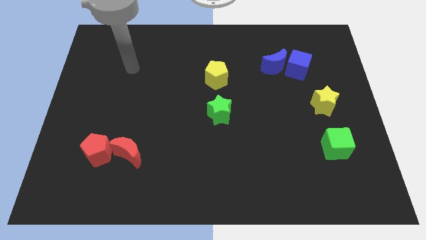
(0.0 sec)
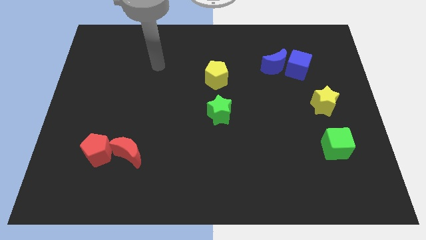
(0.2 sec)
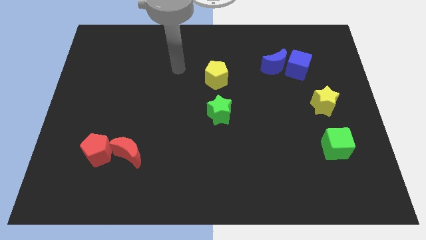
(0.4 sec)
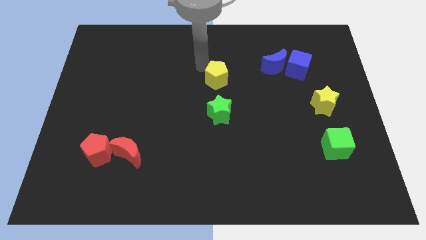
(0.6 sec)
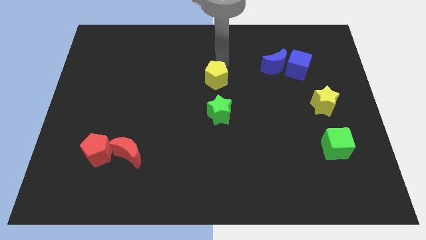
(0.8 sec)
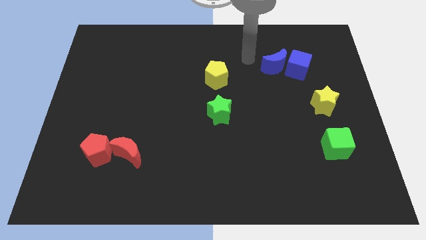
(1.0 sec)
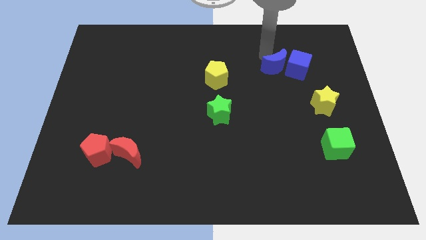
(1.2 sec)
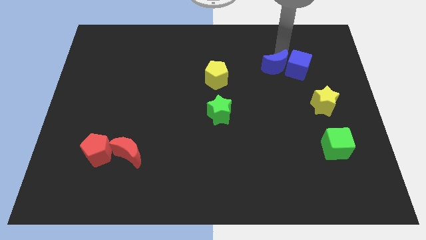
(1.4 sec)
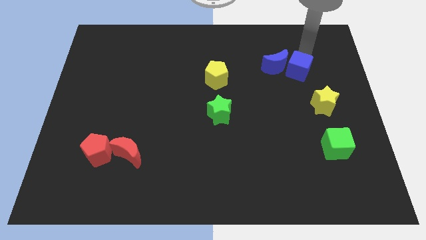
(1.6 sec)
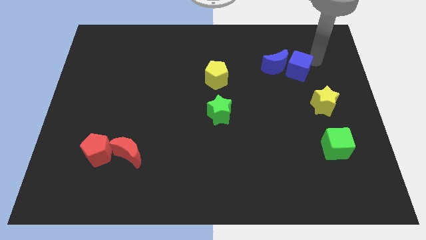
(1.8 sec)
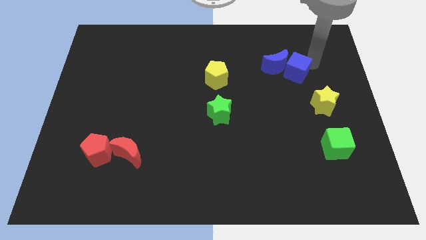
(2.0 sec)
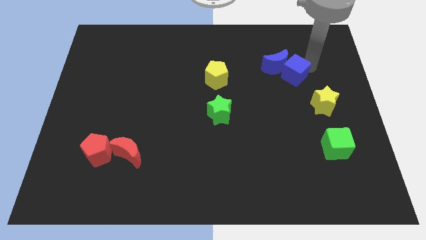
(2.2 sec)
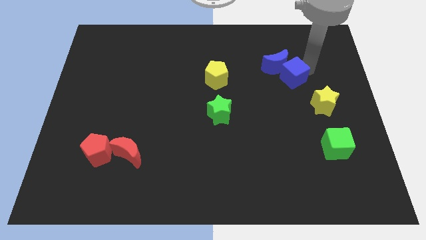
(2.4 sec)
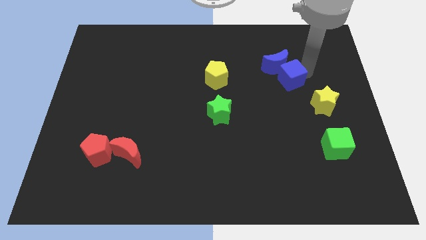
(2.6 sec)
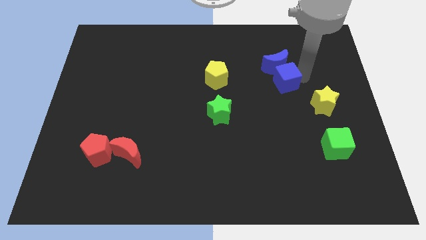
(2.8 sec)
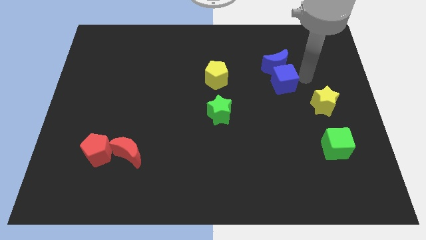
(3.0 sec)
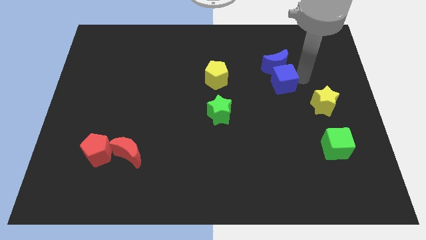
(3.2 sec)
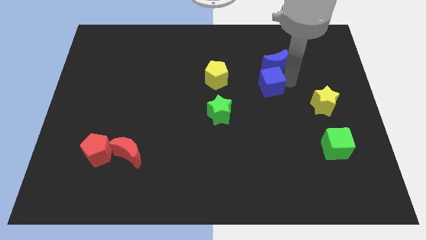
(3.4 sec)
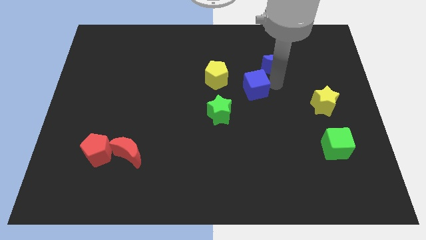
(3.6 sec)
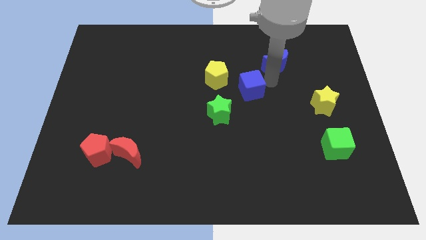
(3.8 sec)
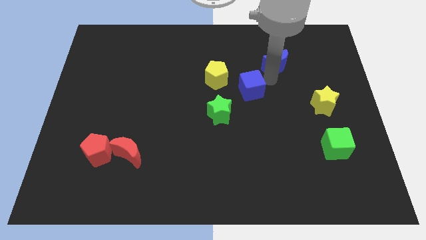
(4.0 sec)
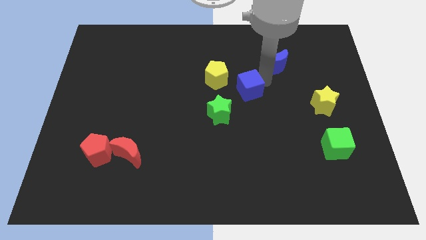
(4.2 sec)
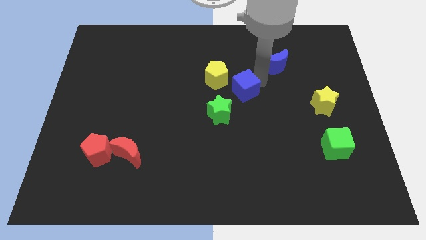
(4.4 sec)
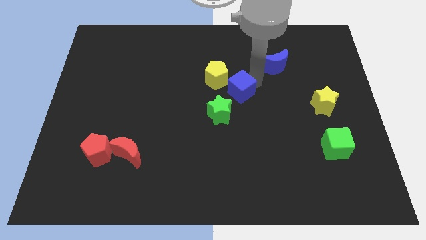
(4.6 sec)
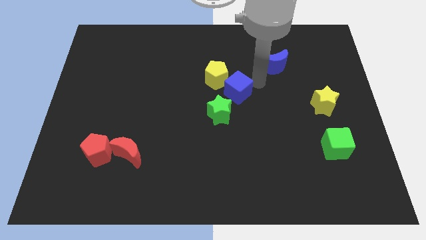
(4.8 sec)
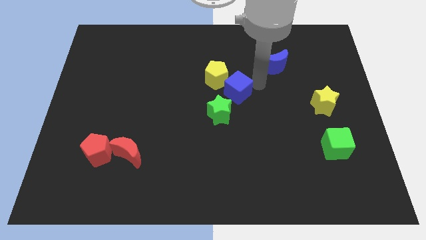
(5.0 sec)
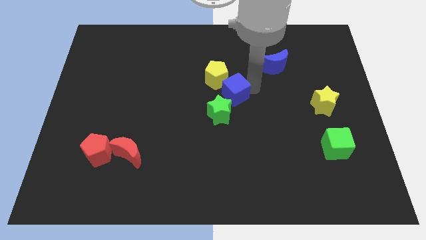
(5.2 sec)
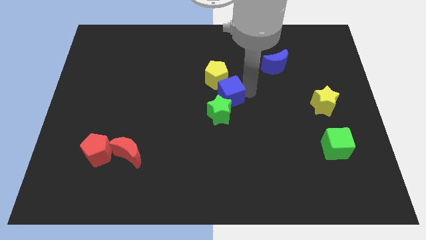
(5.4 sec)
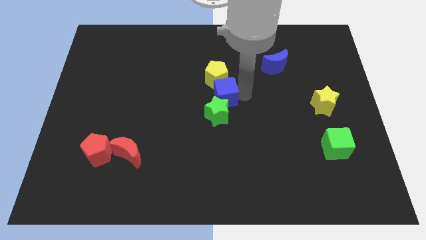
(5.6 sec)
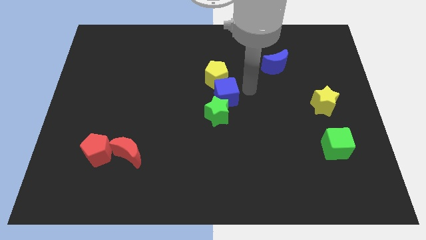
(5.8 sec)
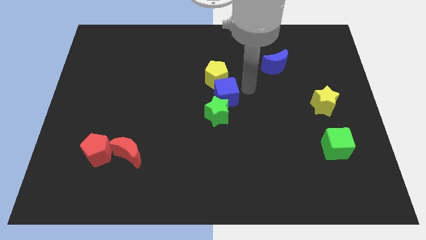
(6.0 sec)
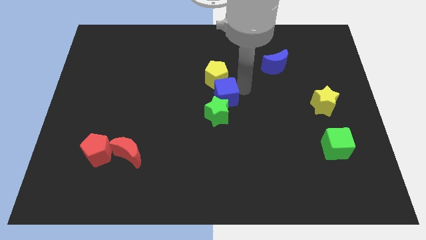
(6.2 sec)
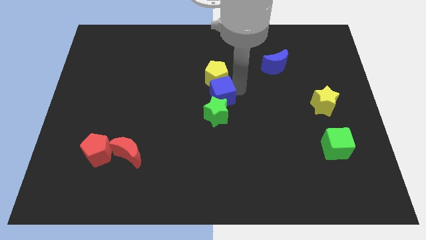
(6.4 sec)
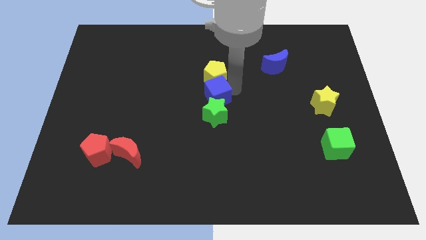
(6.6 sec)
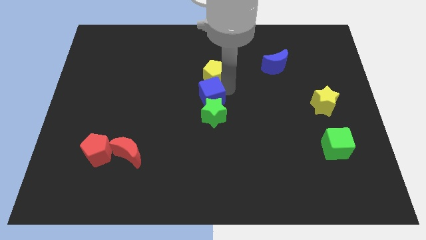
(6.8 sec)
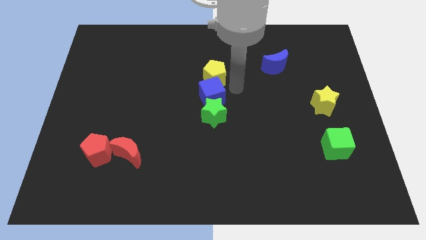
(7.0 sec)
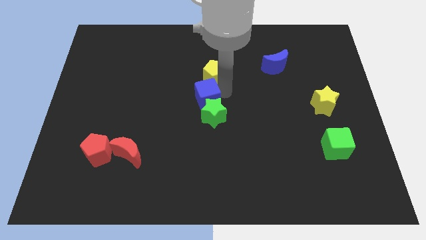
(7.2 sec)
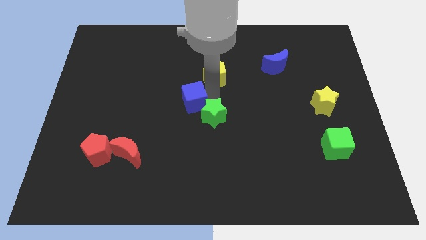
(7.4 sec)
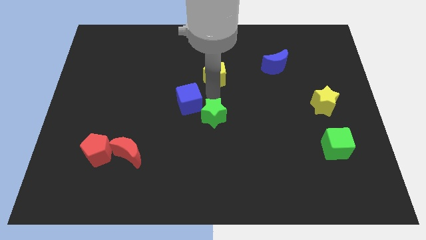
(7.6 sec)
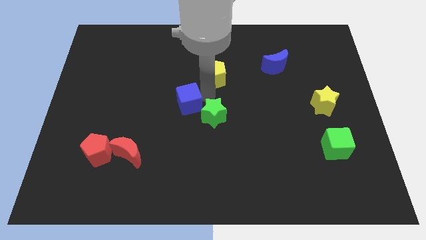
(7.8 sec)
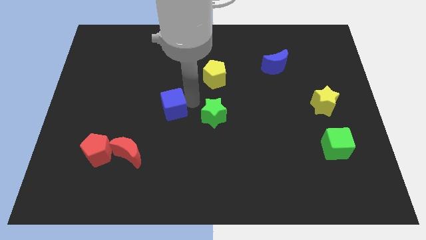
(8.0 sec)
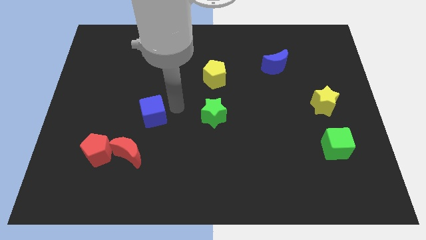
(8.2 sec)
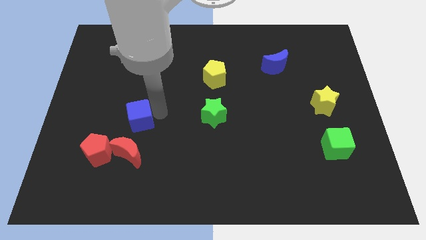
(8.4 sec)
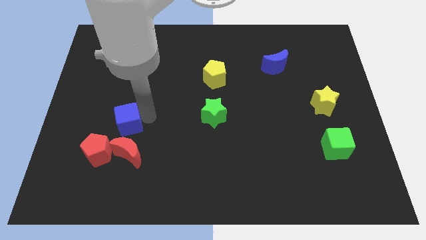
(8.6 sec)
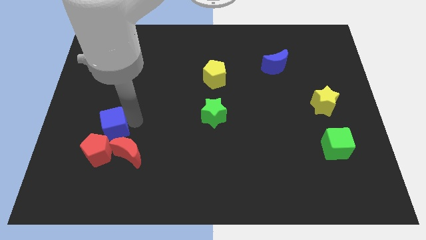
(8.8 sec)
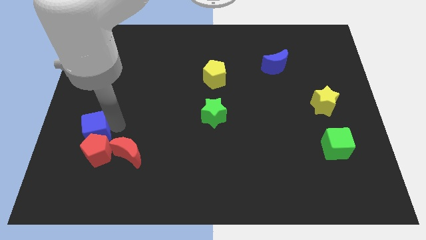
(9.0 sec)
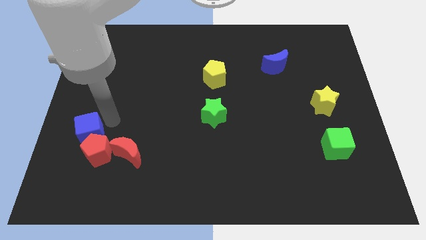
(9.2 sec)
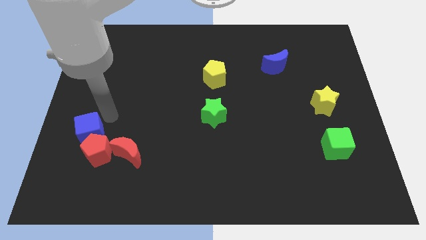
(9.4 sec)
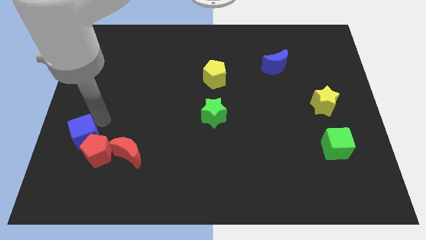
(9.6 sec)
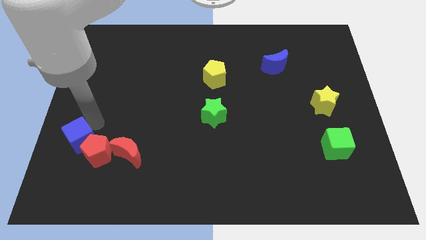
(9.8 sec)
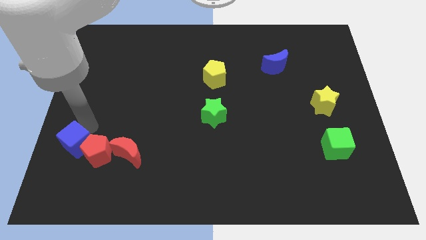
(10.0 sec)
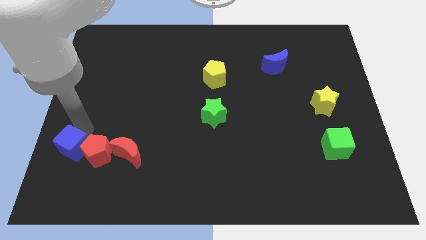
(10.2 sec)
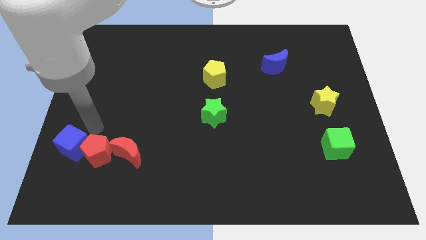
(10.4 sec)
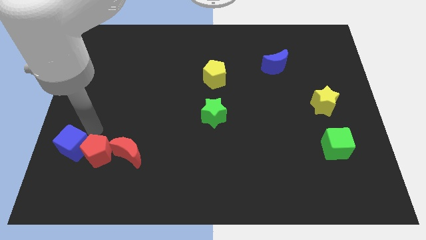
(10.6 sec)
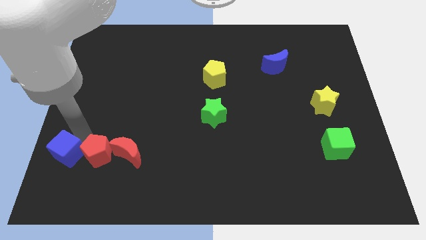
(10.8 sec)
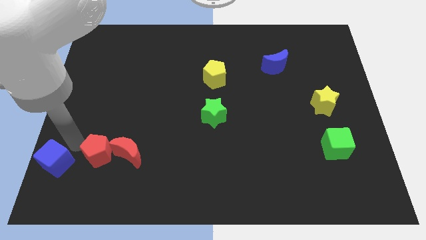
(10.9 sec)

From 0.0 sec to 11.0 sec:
move the blue cube to the lower left corner

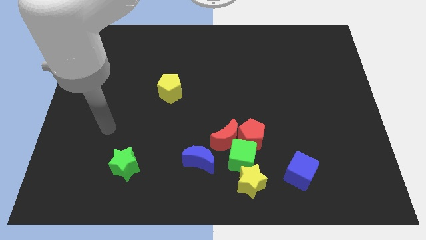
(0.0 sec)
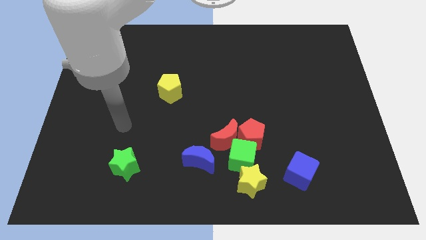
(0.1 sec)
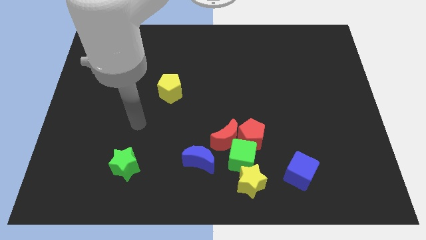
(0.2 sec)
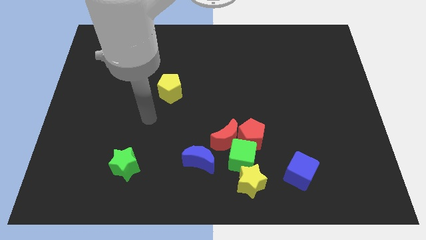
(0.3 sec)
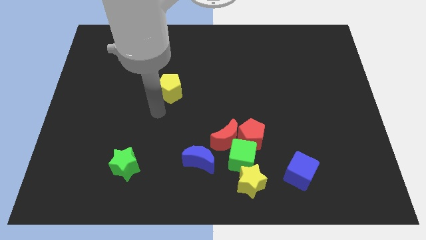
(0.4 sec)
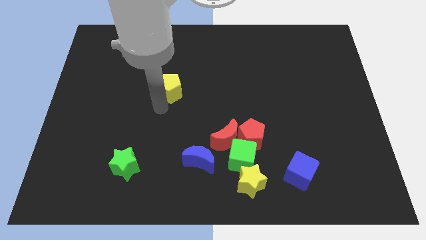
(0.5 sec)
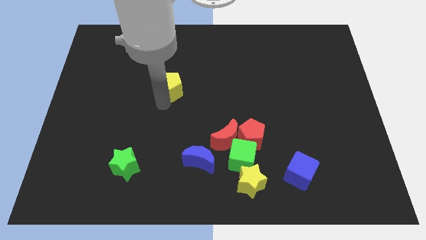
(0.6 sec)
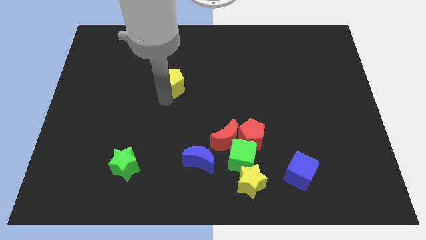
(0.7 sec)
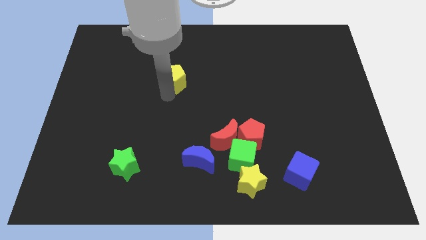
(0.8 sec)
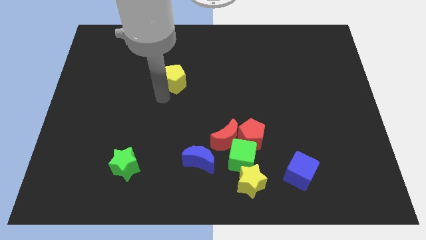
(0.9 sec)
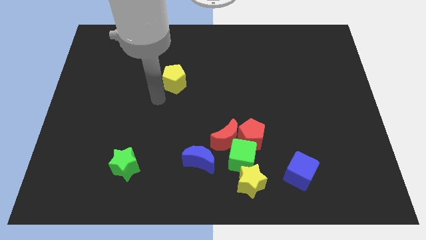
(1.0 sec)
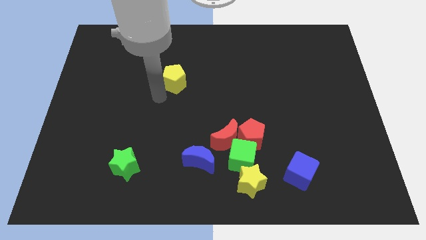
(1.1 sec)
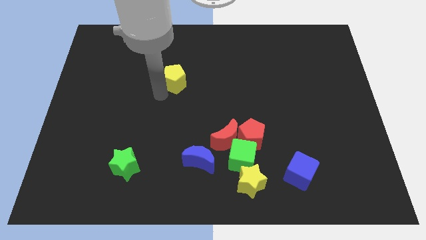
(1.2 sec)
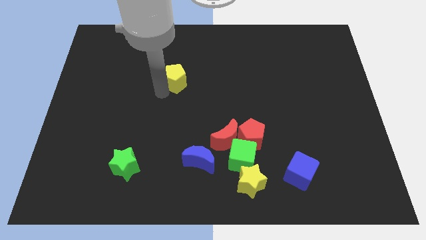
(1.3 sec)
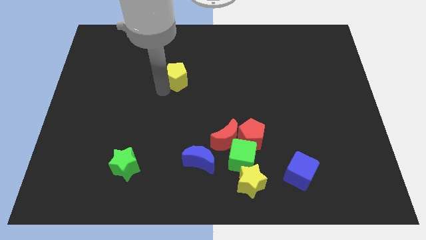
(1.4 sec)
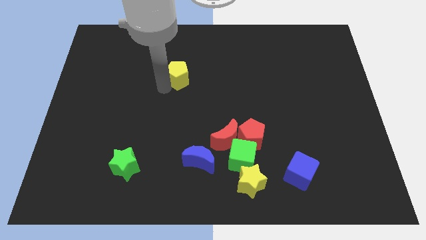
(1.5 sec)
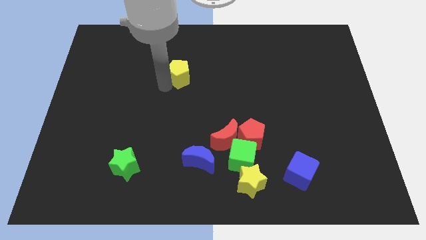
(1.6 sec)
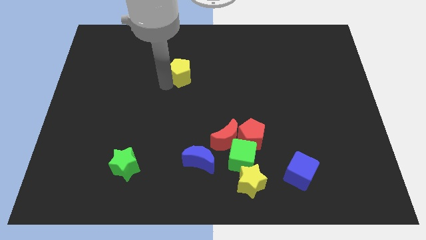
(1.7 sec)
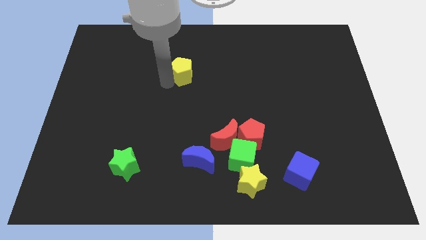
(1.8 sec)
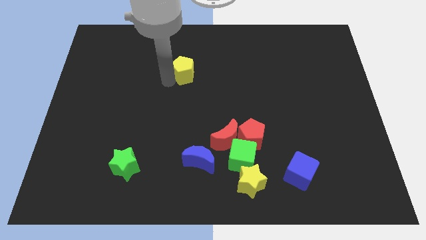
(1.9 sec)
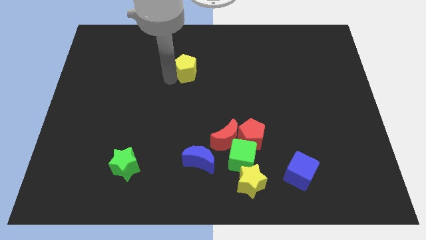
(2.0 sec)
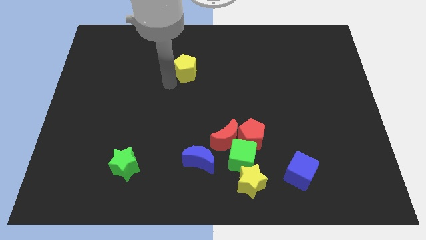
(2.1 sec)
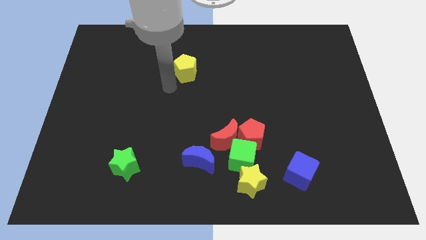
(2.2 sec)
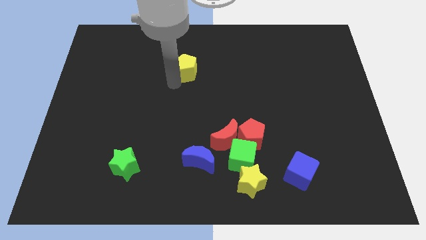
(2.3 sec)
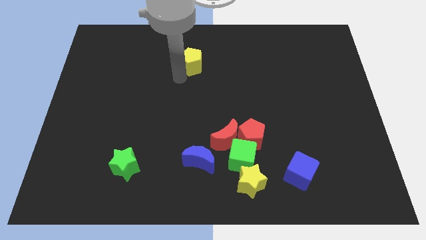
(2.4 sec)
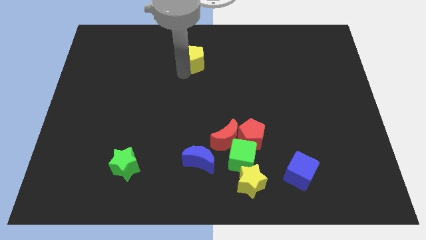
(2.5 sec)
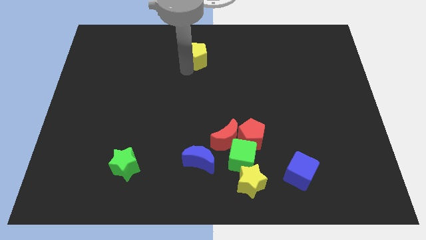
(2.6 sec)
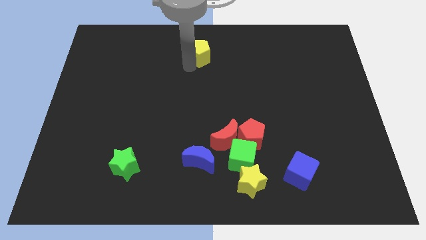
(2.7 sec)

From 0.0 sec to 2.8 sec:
put the yellow pentagon to the top side
